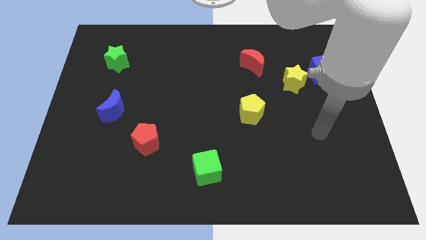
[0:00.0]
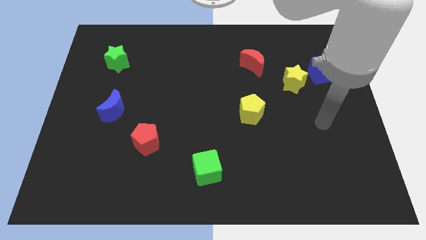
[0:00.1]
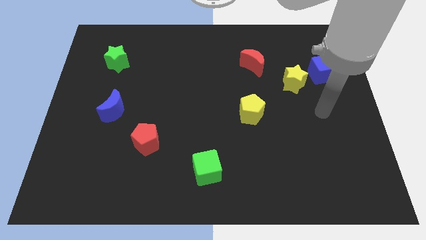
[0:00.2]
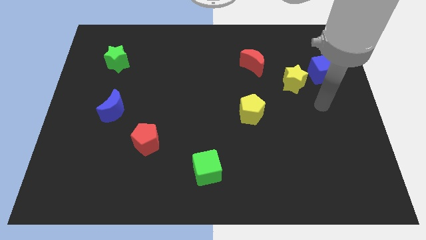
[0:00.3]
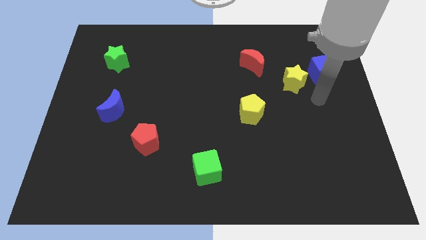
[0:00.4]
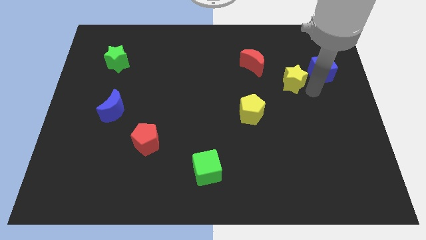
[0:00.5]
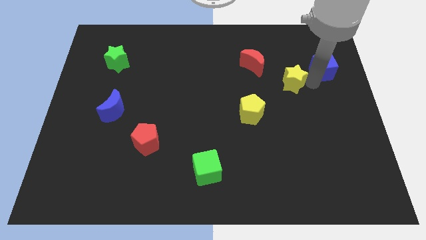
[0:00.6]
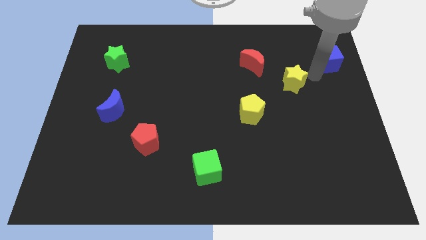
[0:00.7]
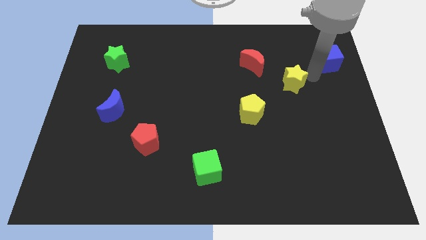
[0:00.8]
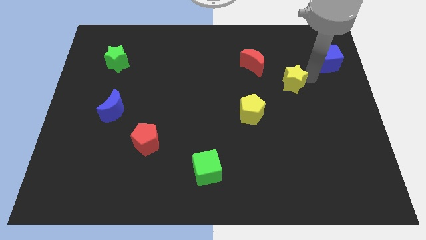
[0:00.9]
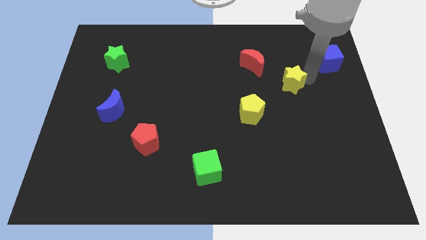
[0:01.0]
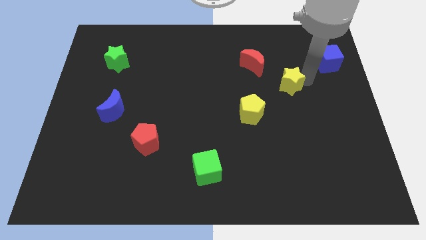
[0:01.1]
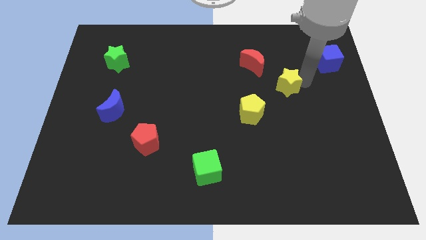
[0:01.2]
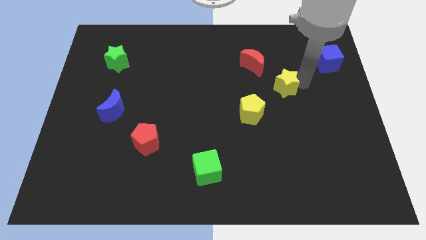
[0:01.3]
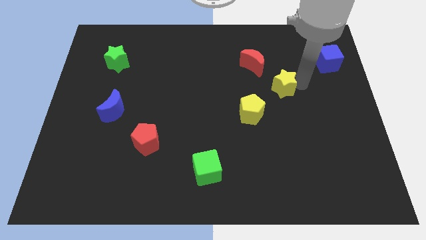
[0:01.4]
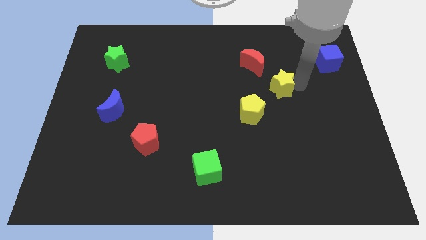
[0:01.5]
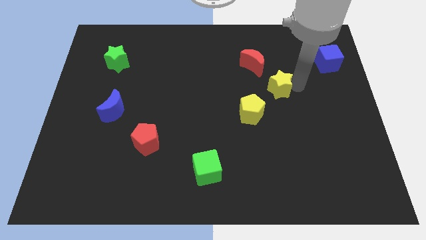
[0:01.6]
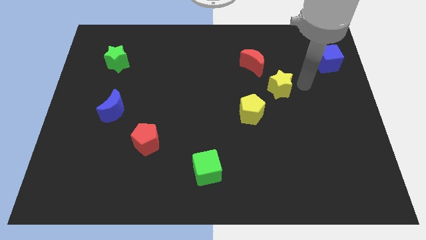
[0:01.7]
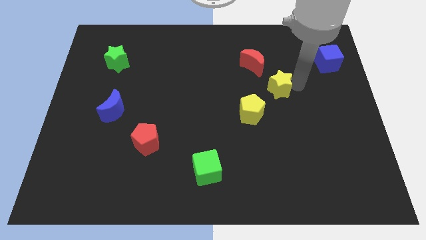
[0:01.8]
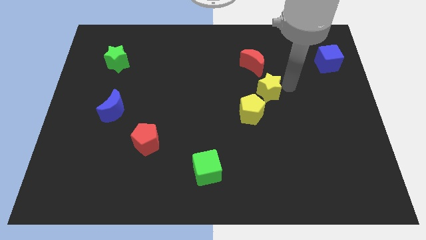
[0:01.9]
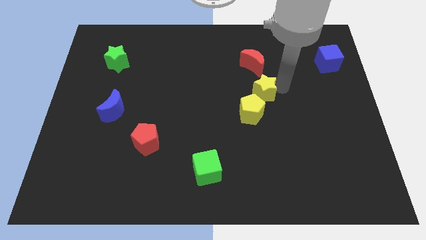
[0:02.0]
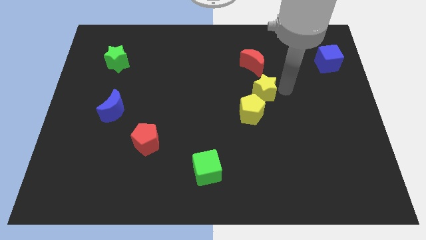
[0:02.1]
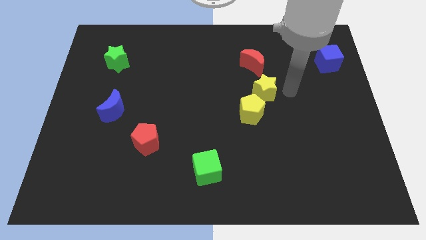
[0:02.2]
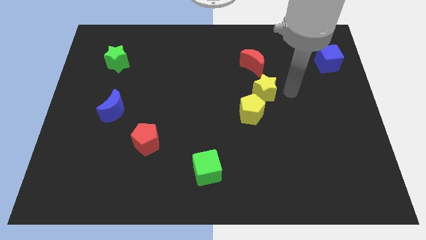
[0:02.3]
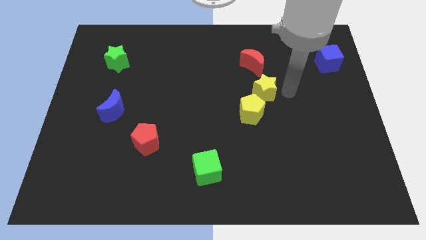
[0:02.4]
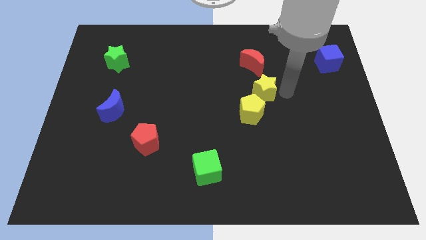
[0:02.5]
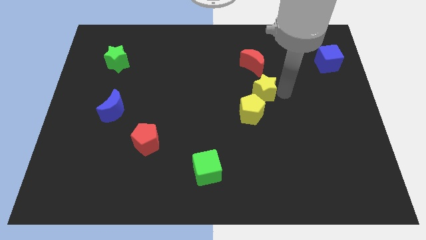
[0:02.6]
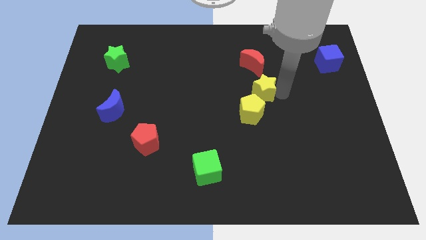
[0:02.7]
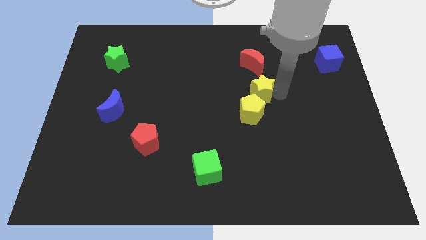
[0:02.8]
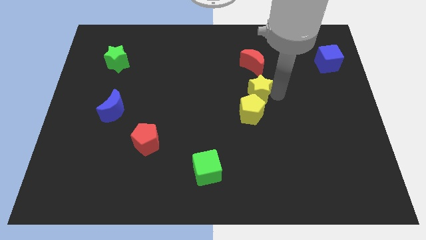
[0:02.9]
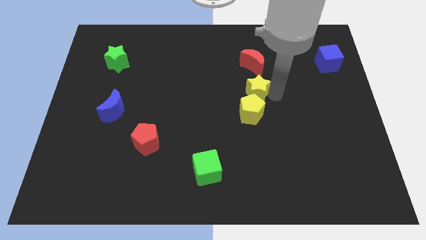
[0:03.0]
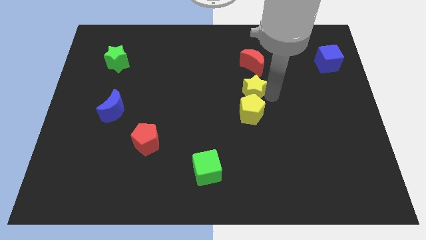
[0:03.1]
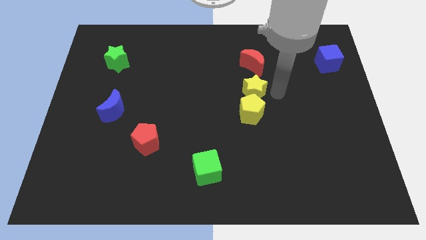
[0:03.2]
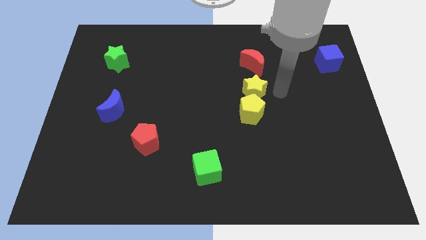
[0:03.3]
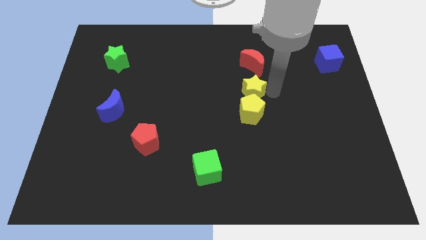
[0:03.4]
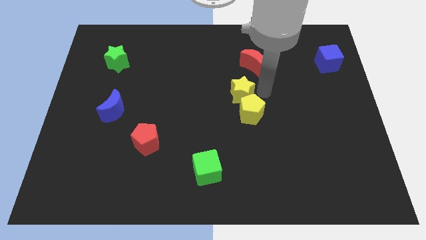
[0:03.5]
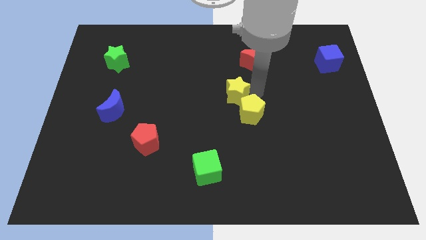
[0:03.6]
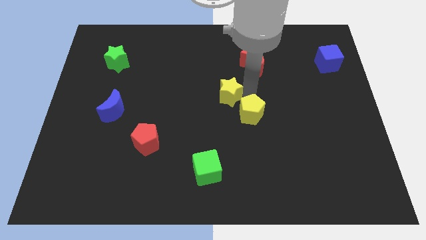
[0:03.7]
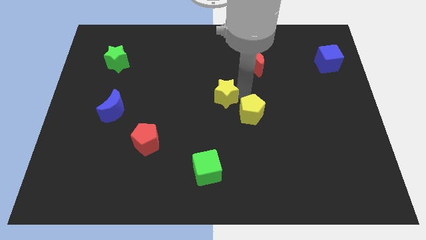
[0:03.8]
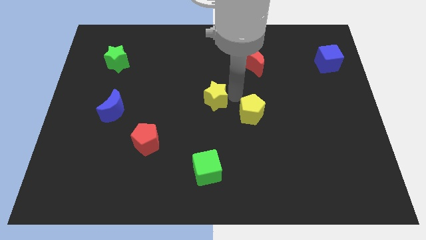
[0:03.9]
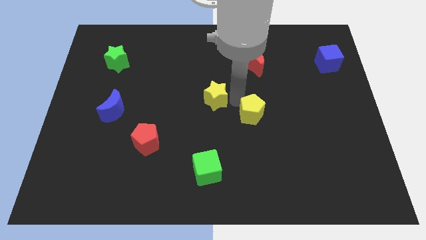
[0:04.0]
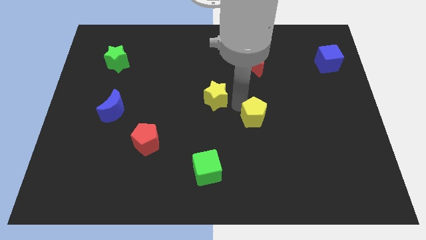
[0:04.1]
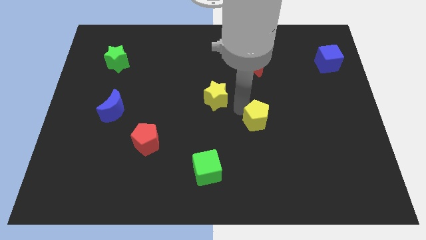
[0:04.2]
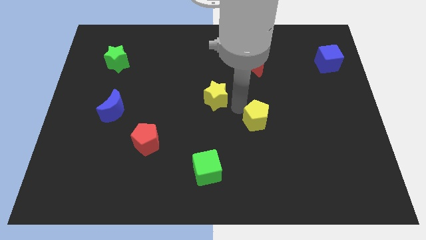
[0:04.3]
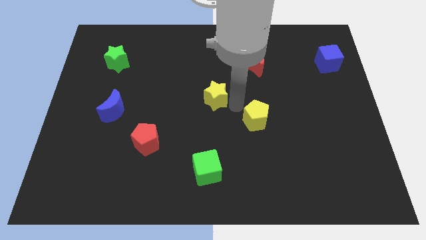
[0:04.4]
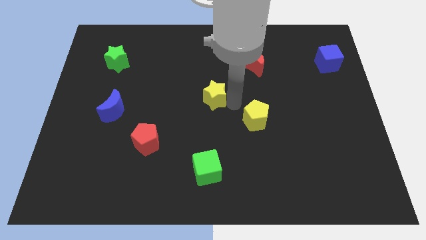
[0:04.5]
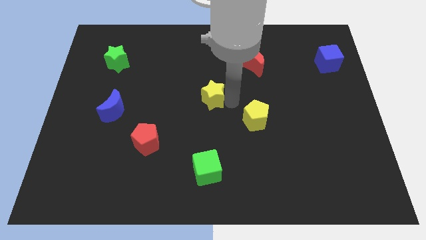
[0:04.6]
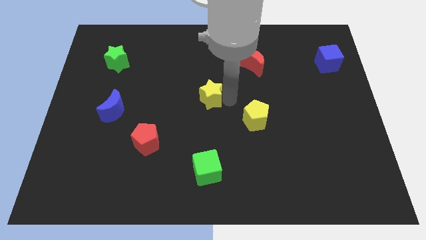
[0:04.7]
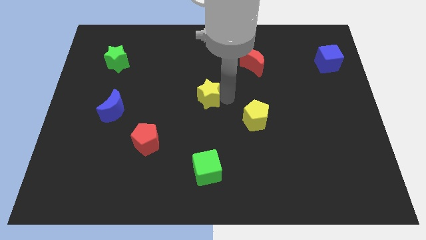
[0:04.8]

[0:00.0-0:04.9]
move the yellow star to the left

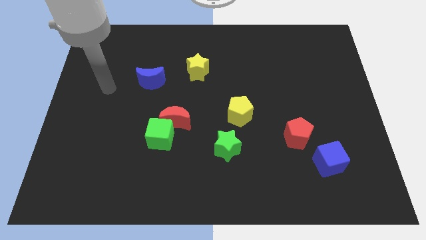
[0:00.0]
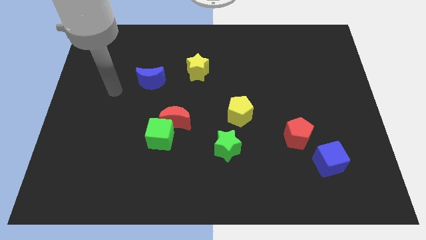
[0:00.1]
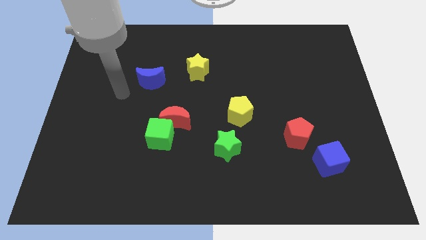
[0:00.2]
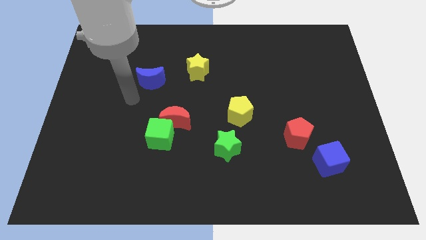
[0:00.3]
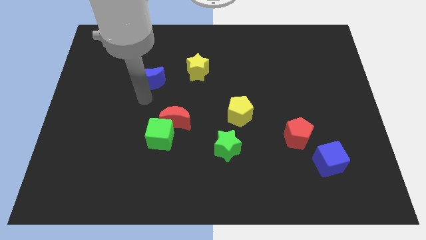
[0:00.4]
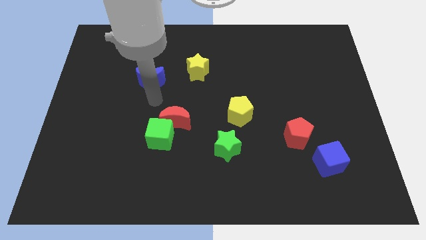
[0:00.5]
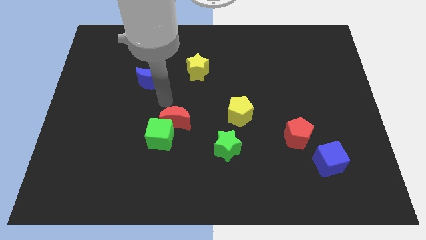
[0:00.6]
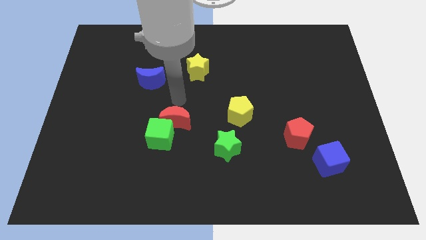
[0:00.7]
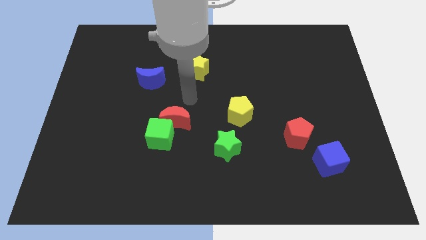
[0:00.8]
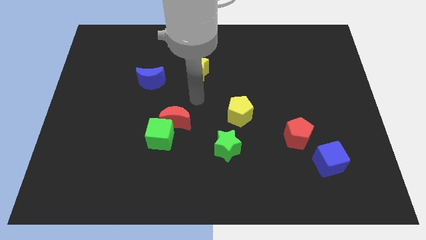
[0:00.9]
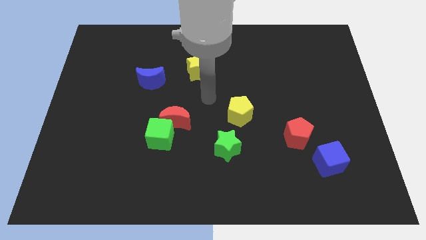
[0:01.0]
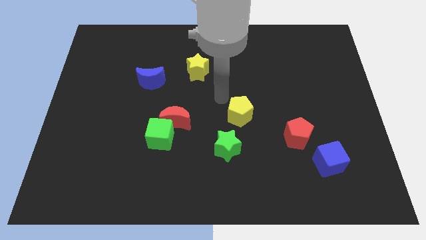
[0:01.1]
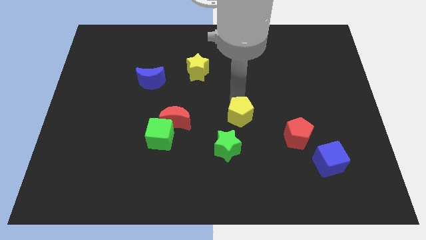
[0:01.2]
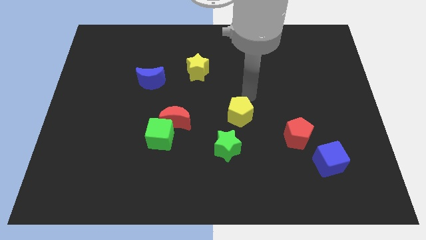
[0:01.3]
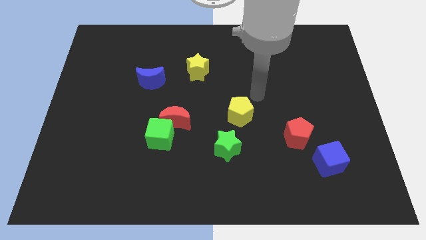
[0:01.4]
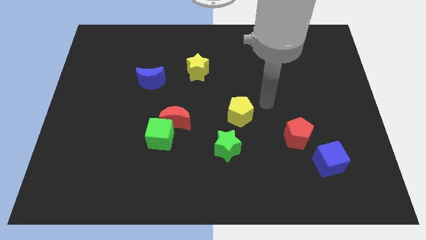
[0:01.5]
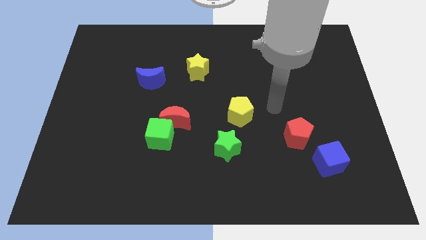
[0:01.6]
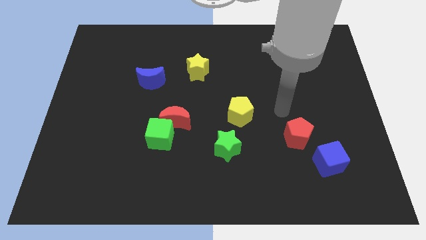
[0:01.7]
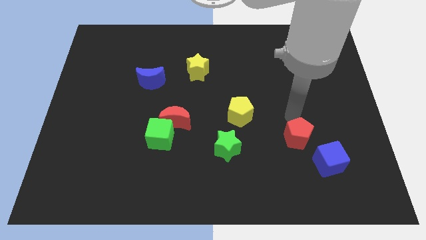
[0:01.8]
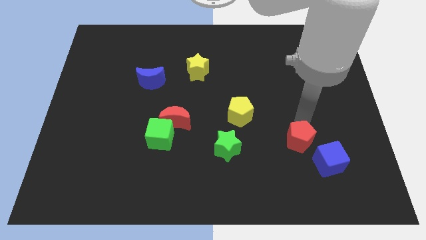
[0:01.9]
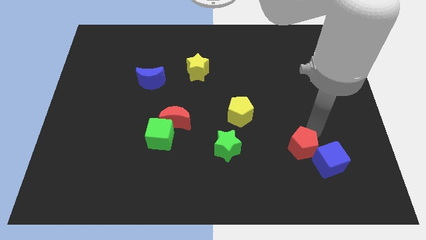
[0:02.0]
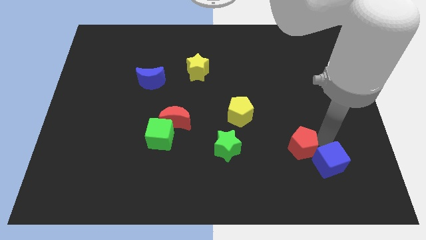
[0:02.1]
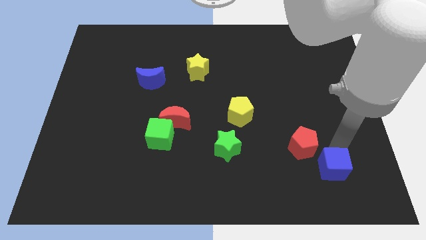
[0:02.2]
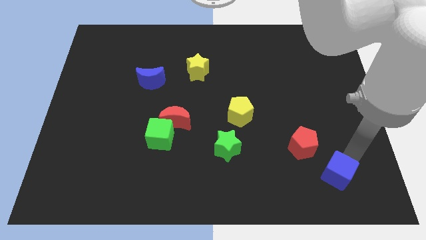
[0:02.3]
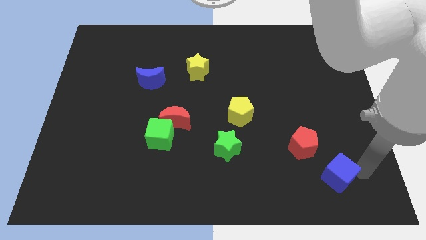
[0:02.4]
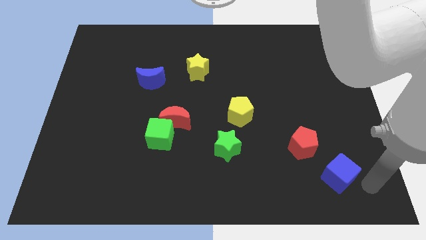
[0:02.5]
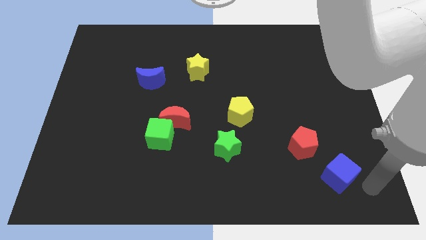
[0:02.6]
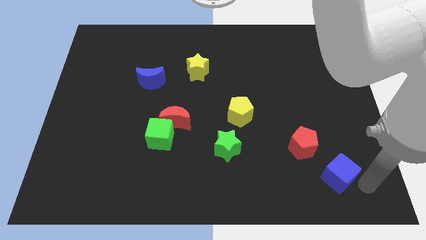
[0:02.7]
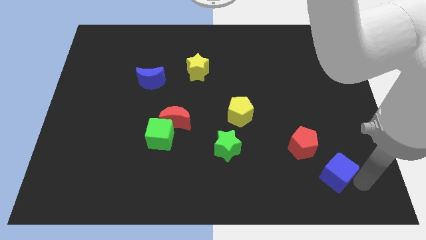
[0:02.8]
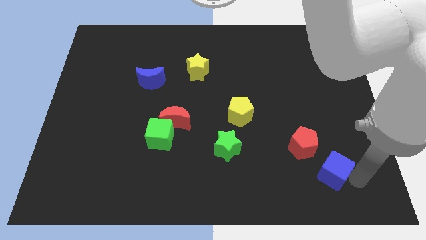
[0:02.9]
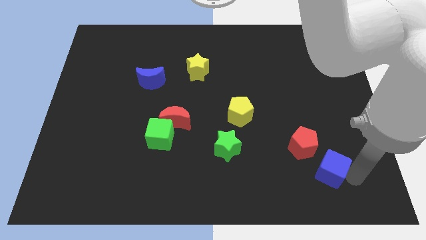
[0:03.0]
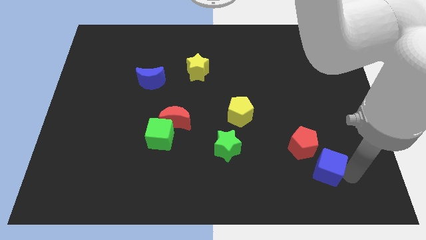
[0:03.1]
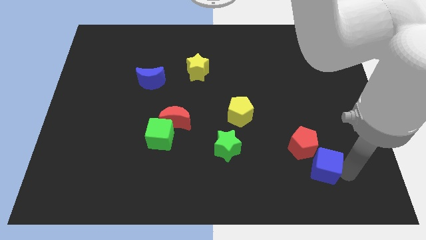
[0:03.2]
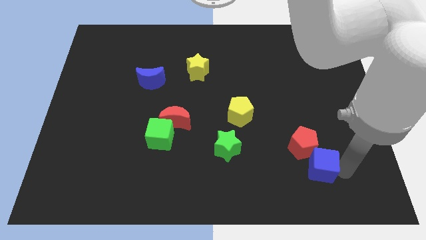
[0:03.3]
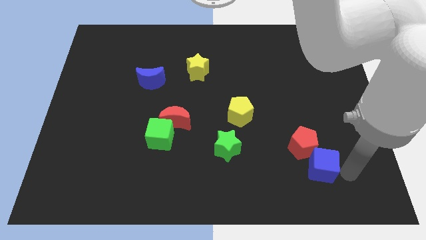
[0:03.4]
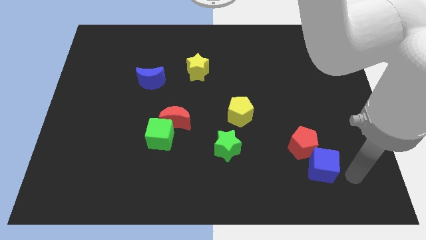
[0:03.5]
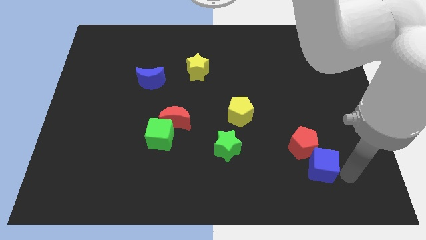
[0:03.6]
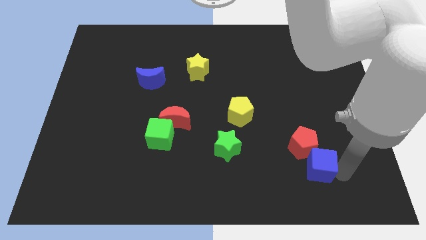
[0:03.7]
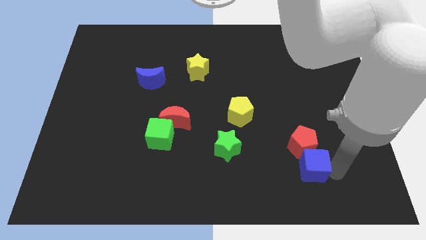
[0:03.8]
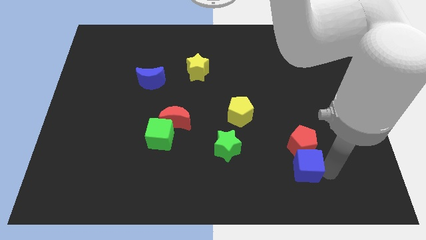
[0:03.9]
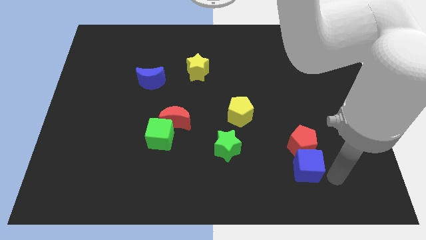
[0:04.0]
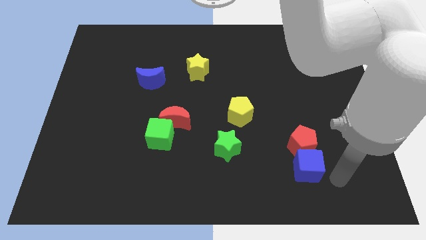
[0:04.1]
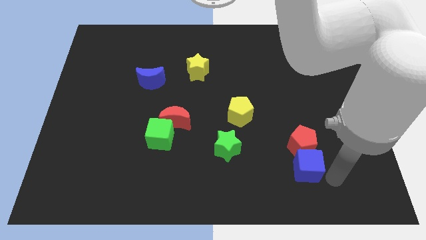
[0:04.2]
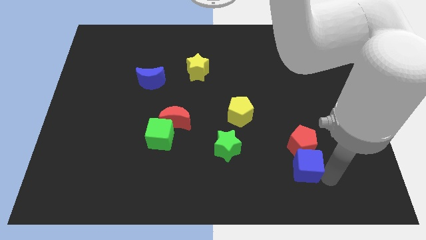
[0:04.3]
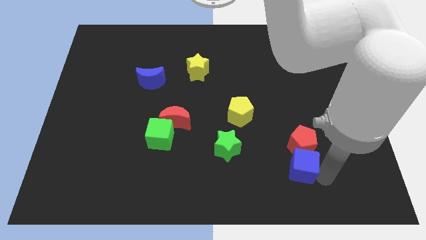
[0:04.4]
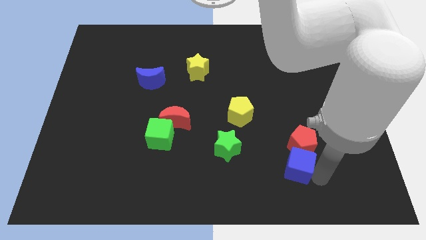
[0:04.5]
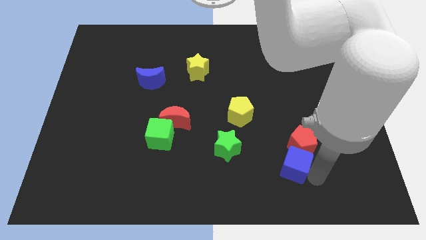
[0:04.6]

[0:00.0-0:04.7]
move the blue cube somewhat left
